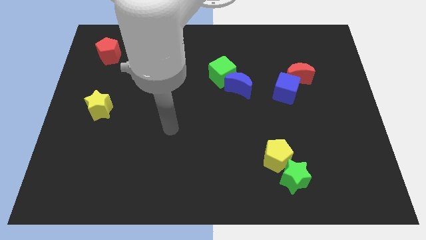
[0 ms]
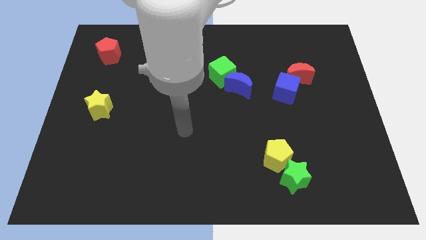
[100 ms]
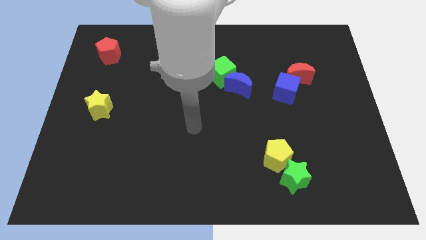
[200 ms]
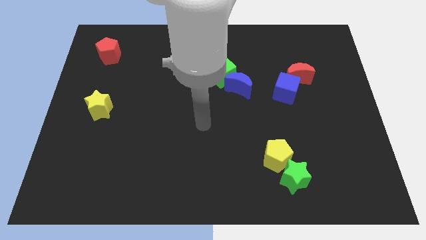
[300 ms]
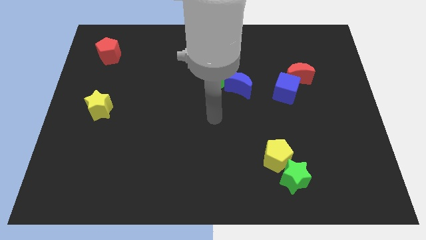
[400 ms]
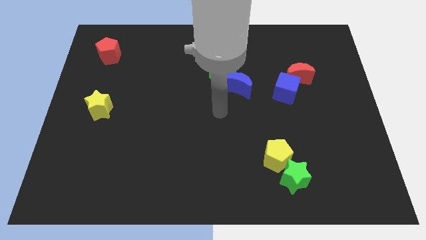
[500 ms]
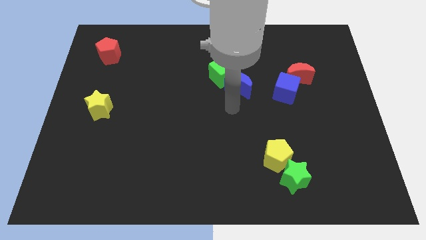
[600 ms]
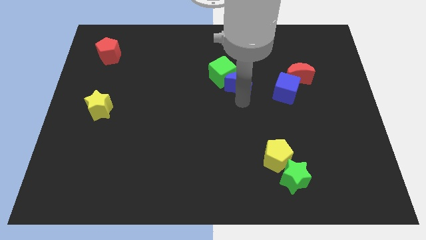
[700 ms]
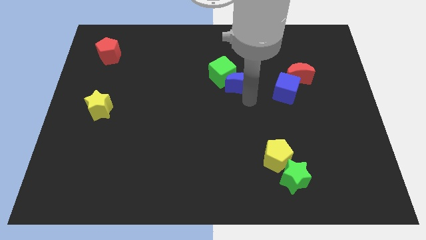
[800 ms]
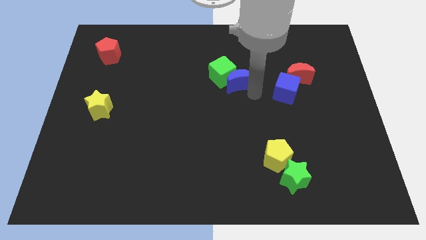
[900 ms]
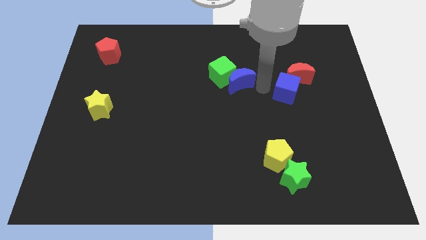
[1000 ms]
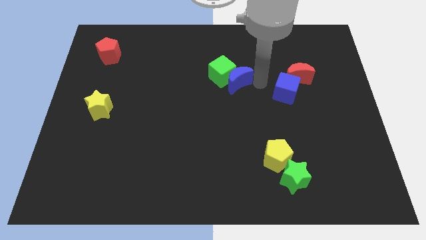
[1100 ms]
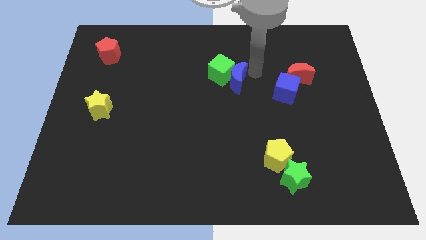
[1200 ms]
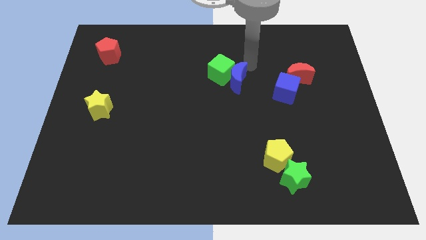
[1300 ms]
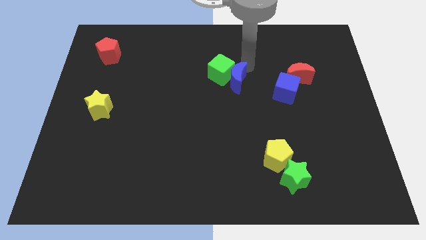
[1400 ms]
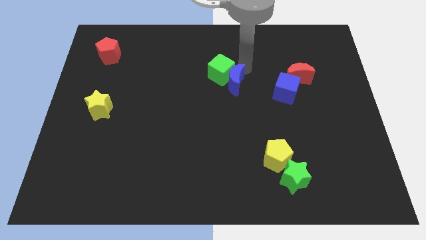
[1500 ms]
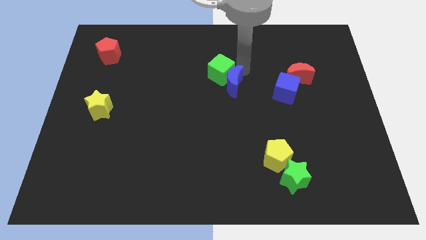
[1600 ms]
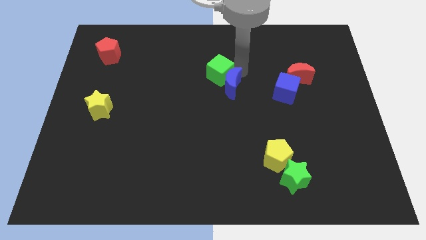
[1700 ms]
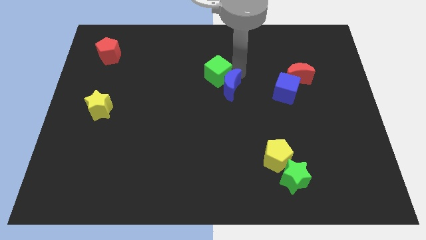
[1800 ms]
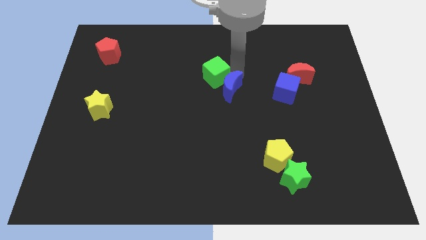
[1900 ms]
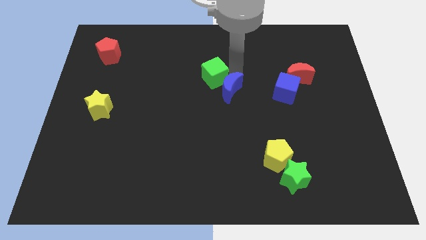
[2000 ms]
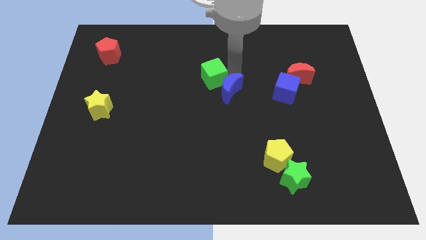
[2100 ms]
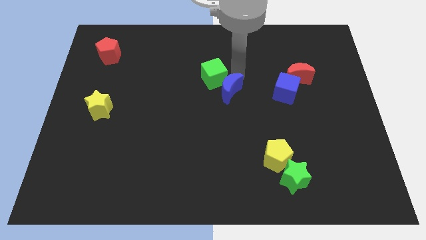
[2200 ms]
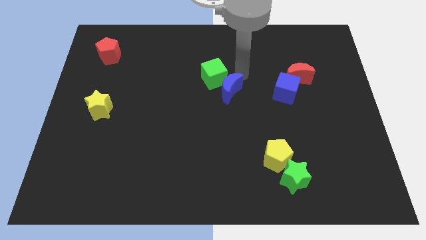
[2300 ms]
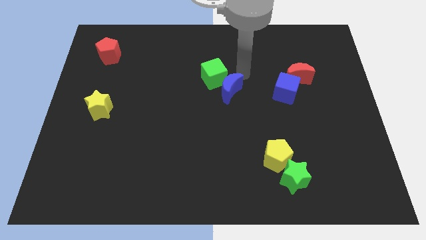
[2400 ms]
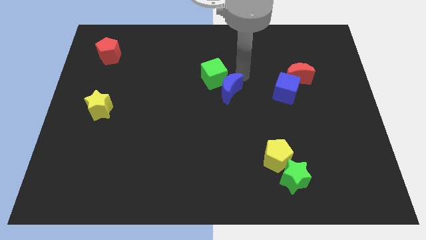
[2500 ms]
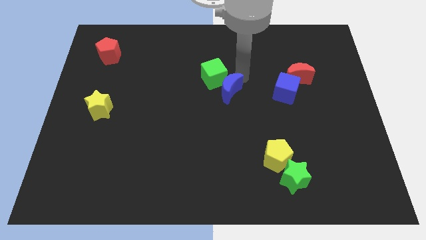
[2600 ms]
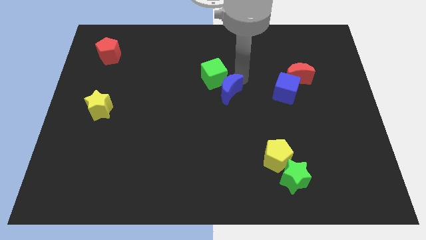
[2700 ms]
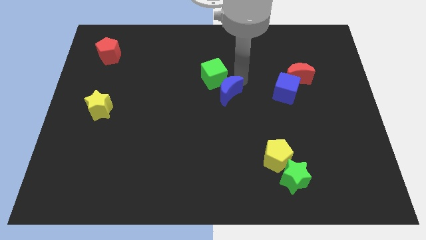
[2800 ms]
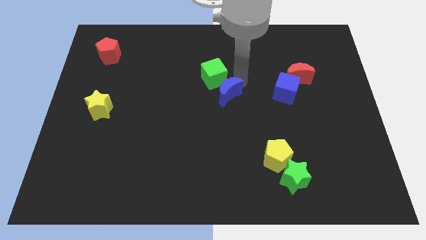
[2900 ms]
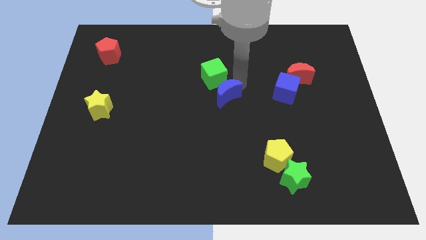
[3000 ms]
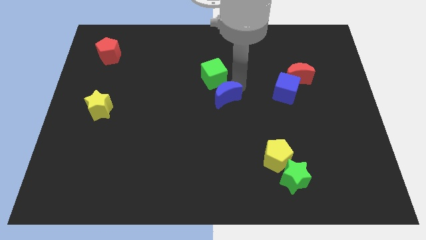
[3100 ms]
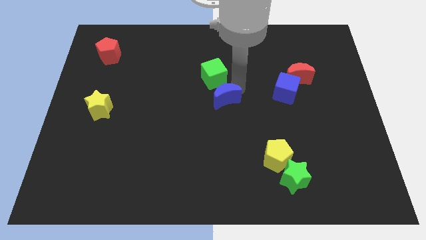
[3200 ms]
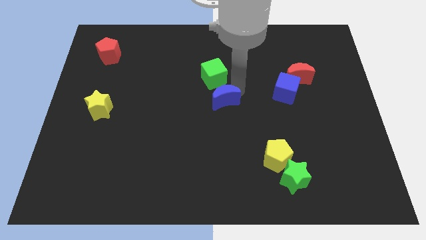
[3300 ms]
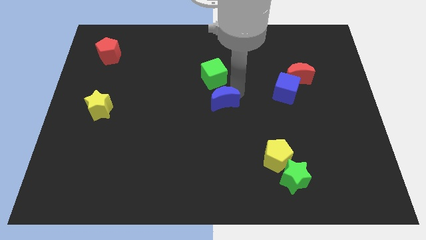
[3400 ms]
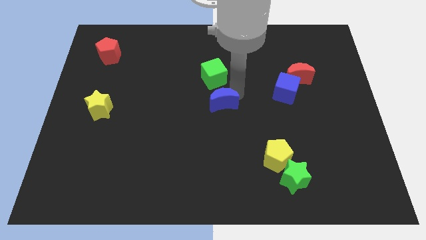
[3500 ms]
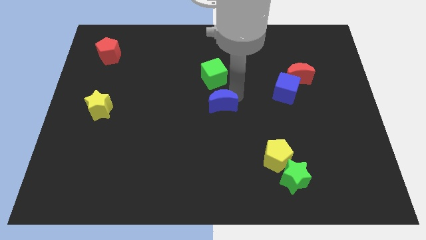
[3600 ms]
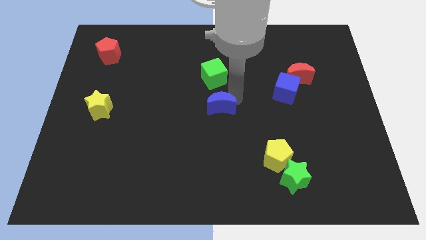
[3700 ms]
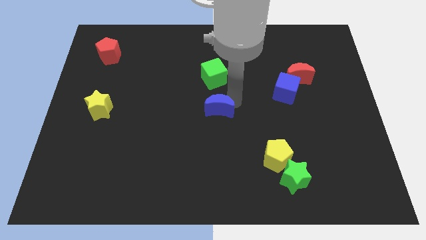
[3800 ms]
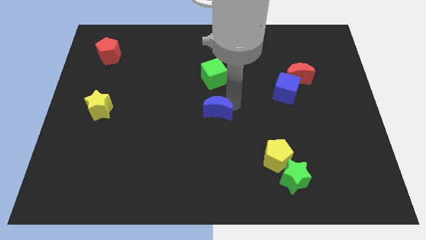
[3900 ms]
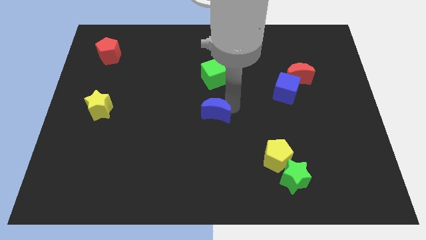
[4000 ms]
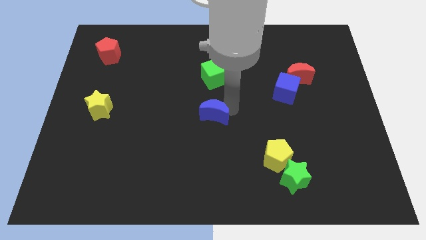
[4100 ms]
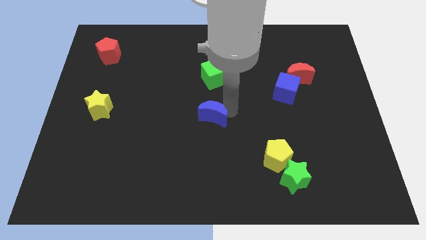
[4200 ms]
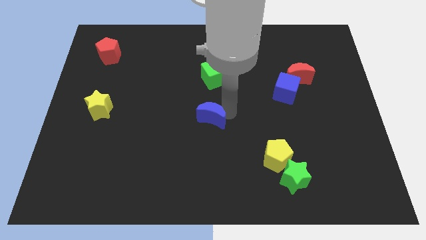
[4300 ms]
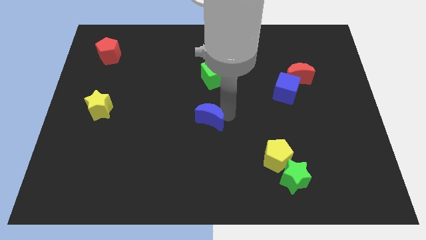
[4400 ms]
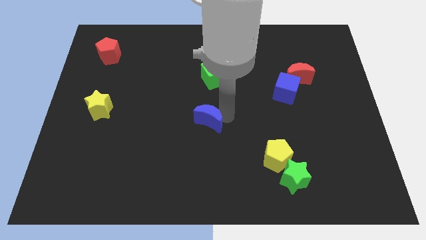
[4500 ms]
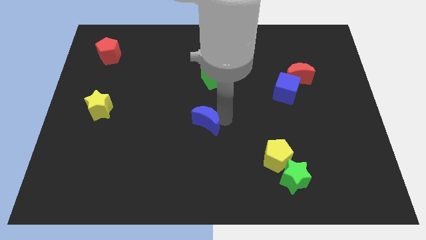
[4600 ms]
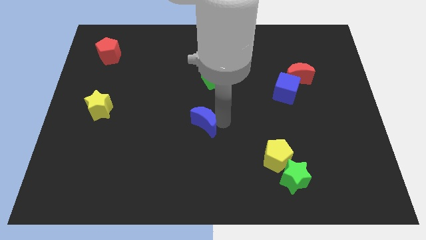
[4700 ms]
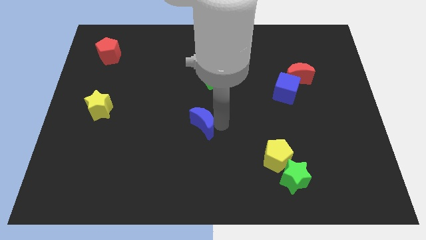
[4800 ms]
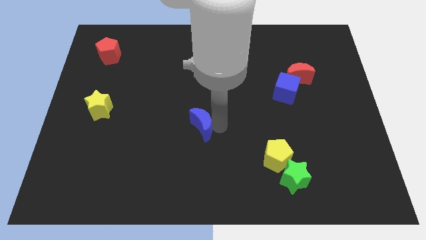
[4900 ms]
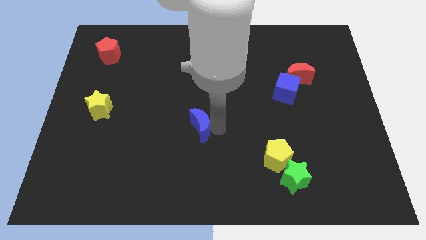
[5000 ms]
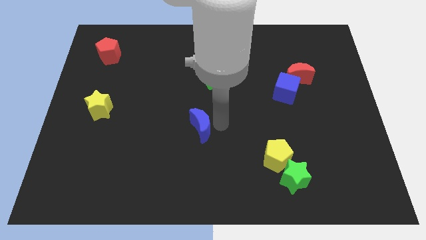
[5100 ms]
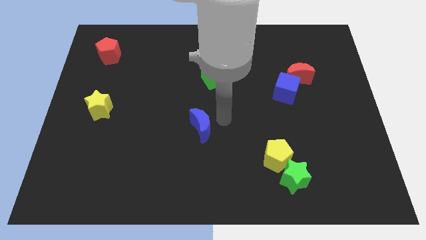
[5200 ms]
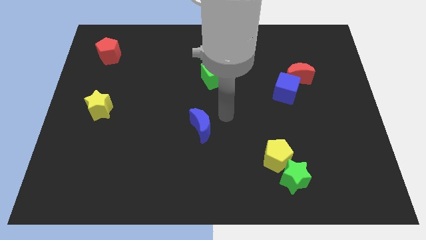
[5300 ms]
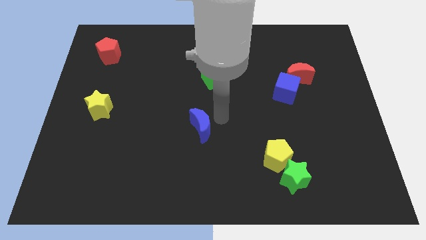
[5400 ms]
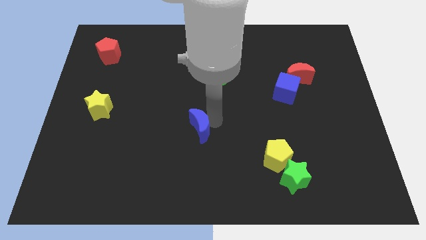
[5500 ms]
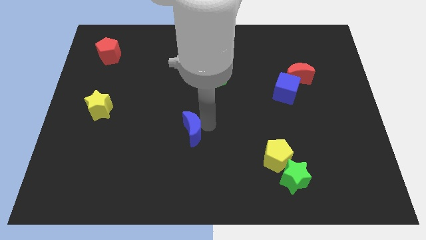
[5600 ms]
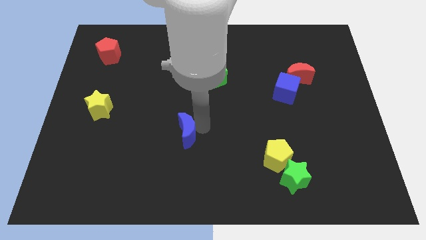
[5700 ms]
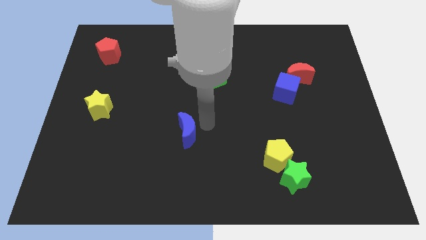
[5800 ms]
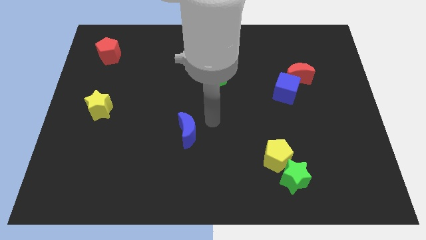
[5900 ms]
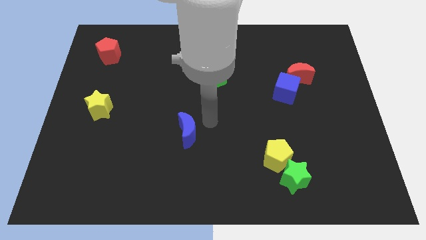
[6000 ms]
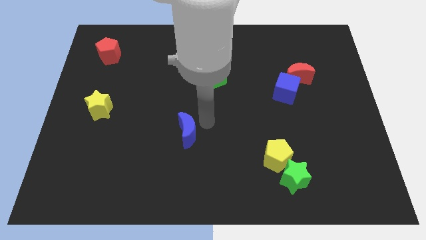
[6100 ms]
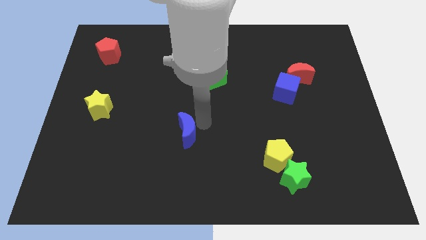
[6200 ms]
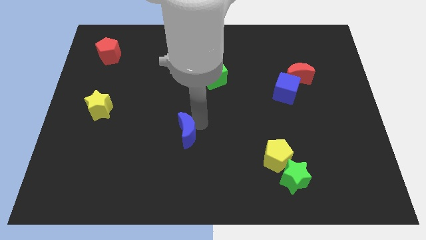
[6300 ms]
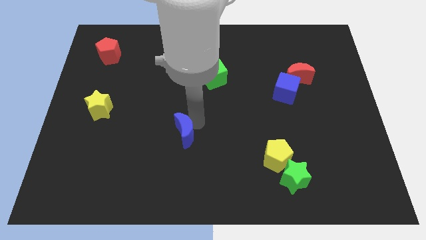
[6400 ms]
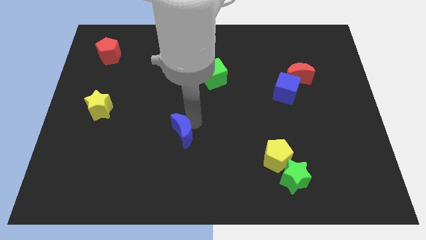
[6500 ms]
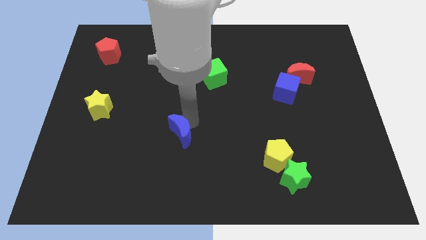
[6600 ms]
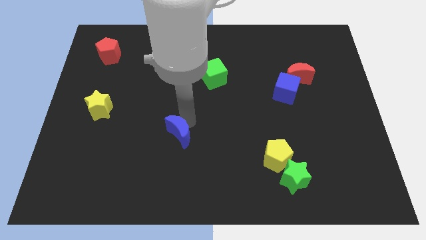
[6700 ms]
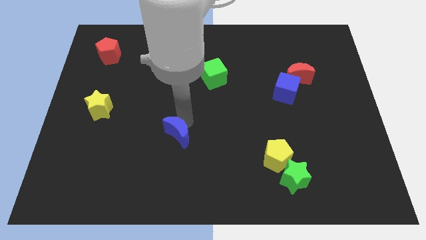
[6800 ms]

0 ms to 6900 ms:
push the blue moon downwards and then left

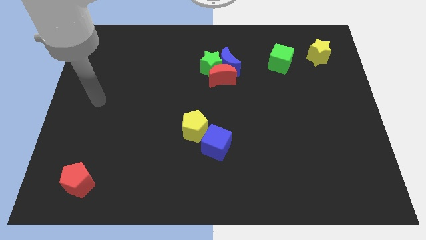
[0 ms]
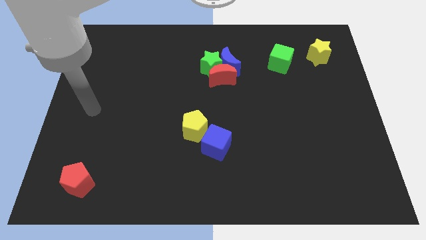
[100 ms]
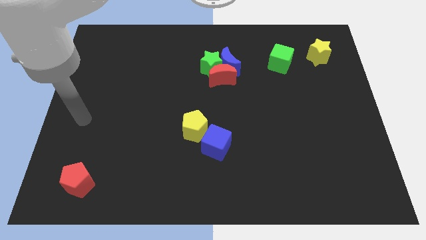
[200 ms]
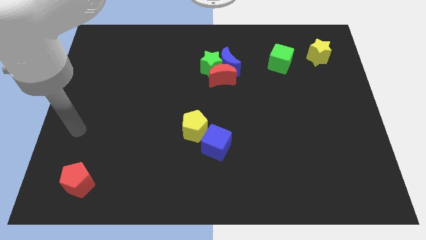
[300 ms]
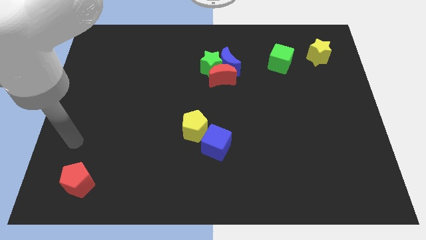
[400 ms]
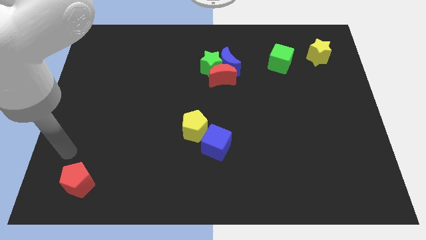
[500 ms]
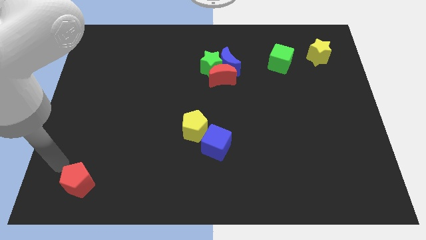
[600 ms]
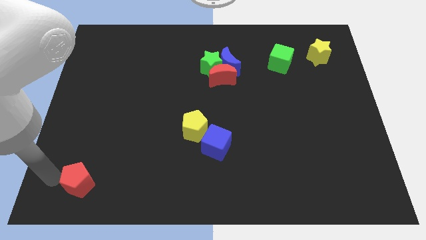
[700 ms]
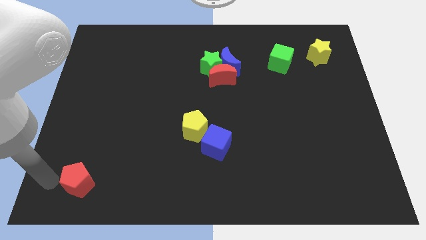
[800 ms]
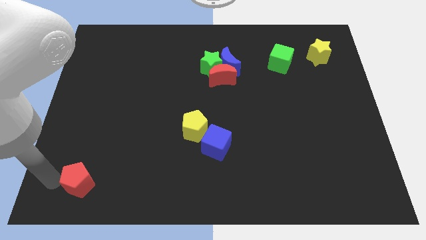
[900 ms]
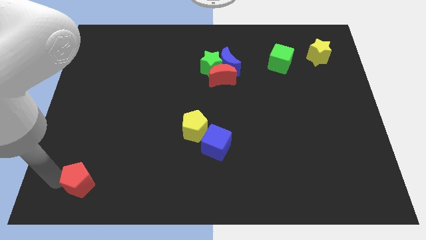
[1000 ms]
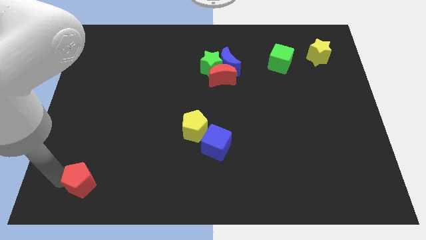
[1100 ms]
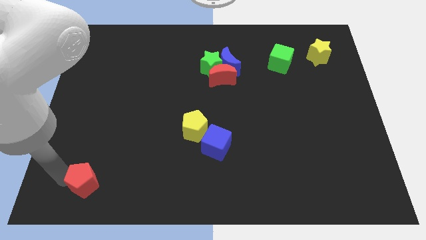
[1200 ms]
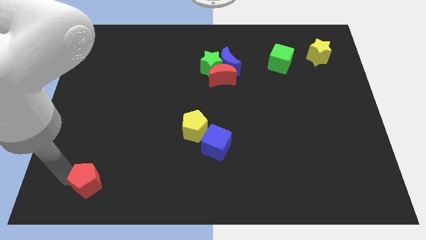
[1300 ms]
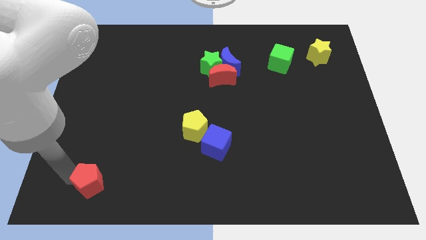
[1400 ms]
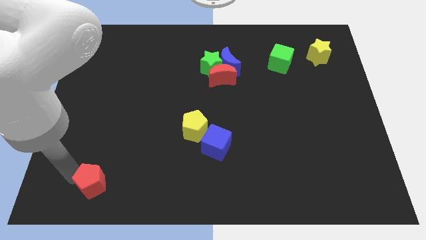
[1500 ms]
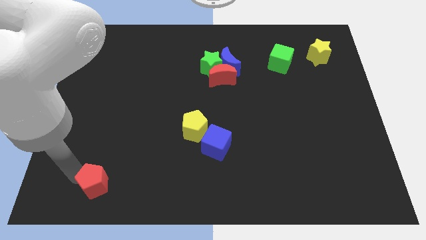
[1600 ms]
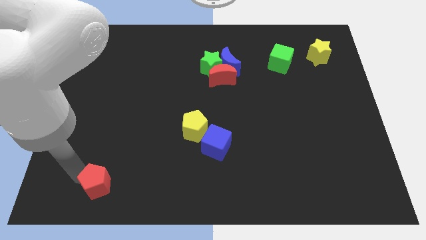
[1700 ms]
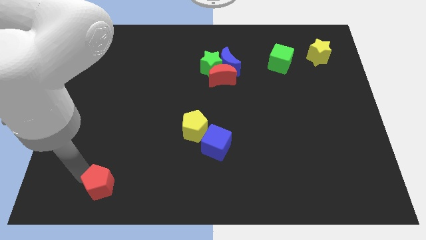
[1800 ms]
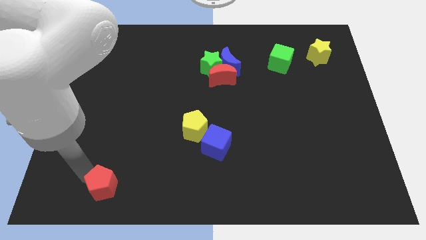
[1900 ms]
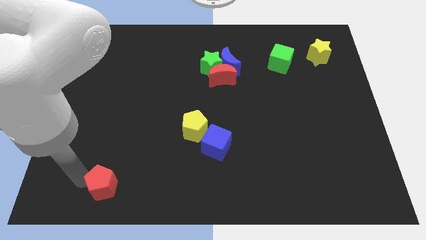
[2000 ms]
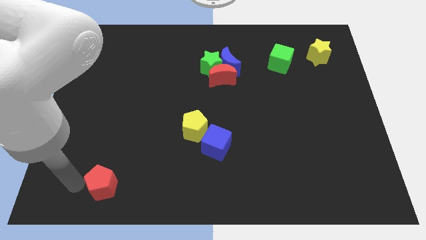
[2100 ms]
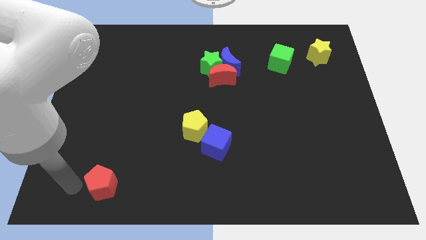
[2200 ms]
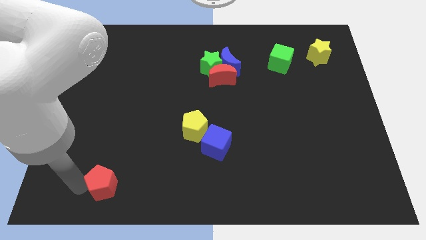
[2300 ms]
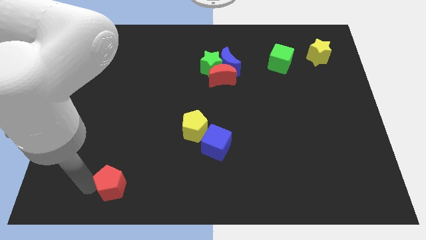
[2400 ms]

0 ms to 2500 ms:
slide the red pentagon to the right a bit
